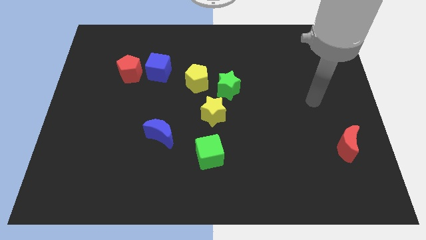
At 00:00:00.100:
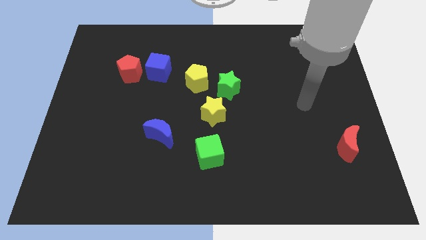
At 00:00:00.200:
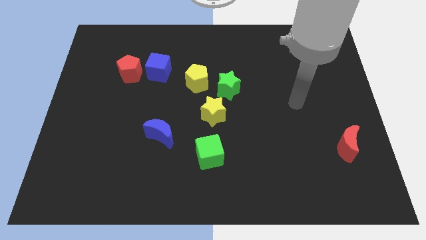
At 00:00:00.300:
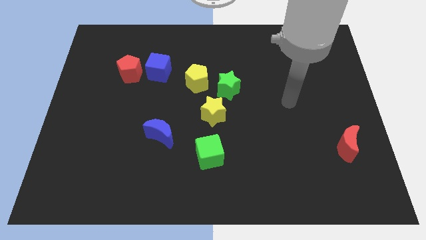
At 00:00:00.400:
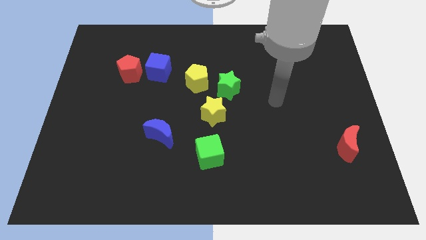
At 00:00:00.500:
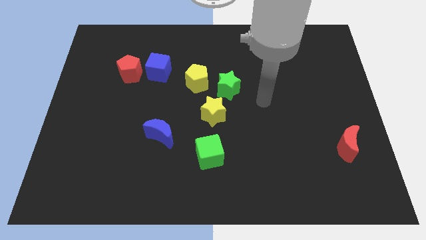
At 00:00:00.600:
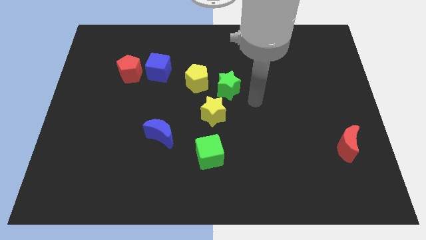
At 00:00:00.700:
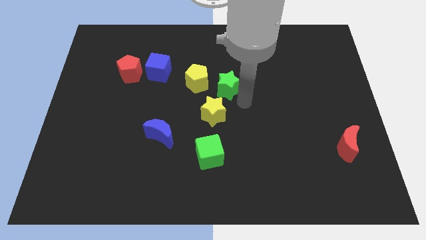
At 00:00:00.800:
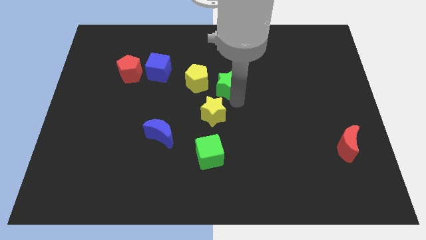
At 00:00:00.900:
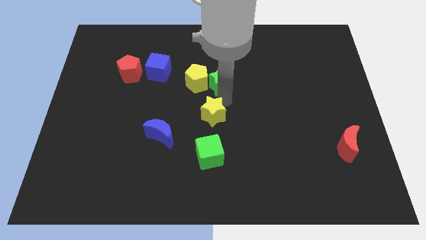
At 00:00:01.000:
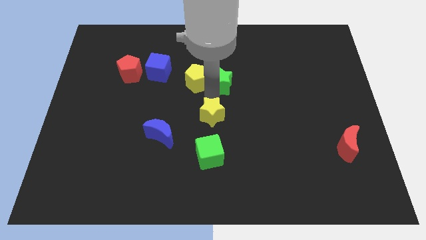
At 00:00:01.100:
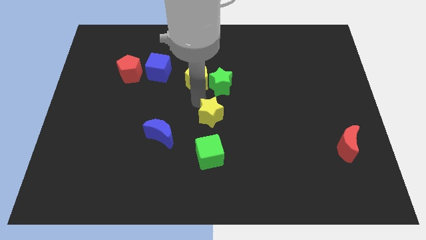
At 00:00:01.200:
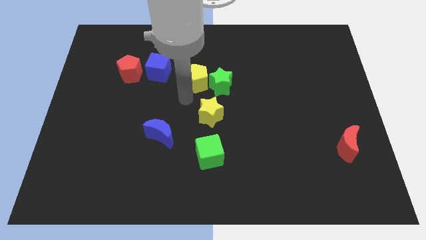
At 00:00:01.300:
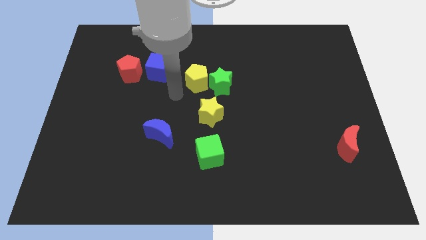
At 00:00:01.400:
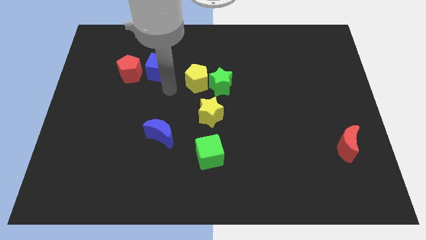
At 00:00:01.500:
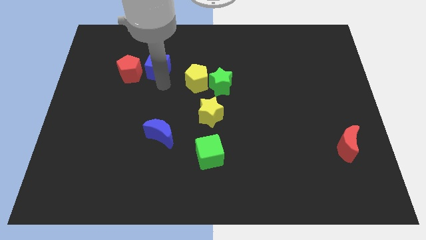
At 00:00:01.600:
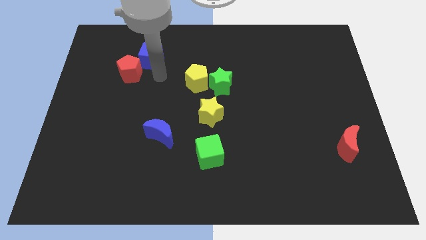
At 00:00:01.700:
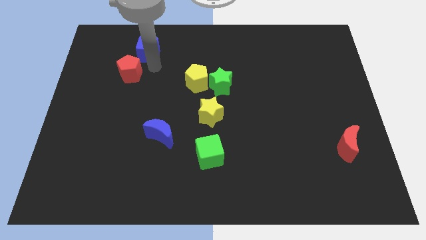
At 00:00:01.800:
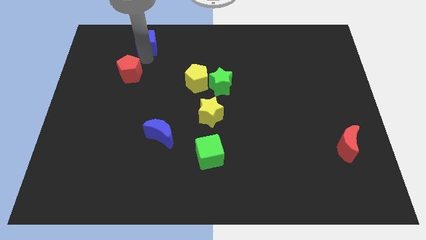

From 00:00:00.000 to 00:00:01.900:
pull the red pentagon apart from the blue cube

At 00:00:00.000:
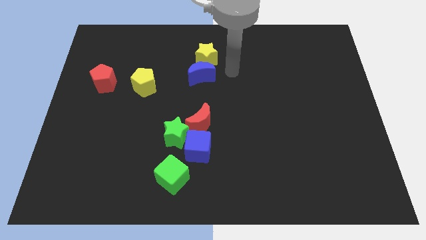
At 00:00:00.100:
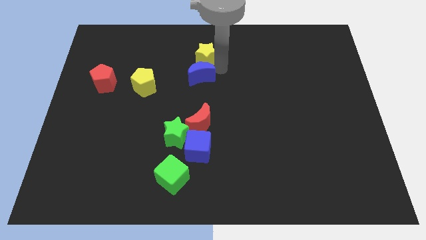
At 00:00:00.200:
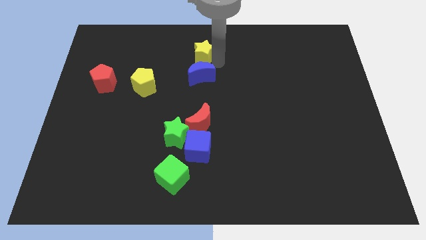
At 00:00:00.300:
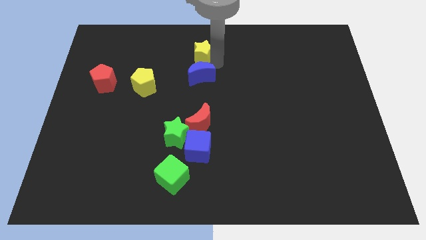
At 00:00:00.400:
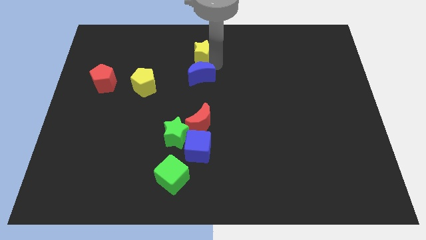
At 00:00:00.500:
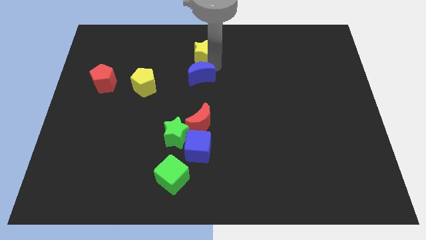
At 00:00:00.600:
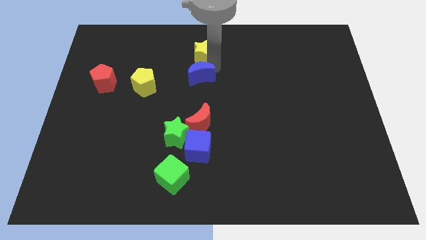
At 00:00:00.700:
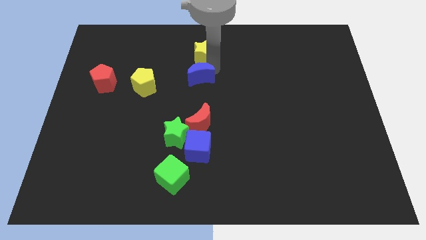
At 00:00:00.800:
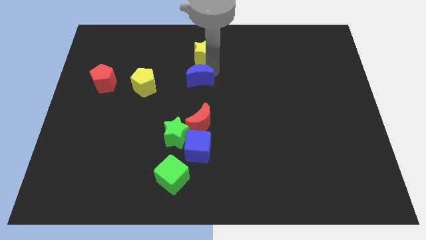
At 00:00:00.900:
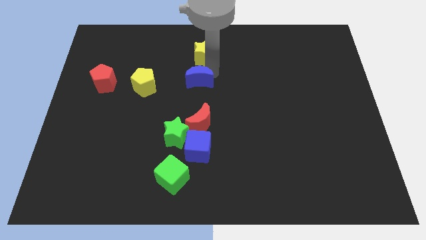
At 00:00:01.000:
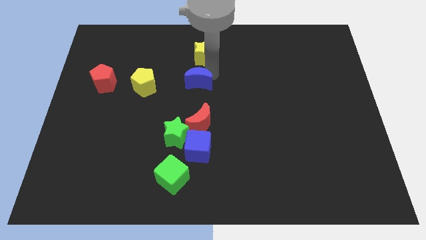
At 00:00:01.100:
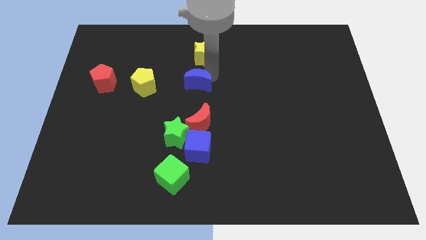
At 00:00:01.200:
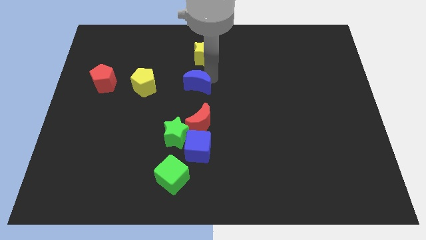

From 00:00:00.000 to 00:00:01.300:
pull the blue moon apart from the yellow star

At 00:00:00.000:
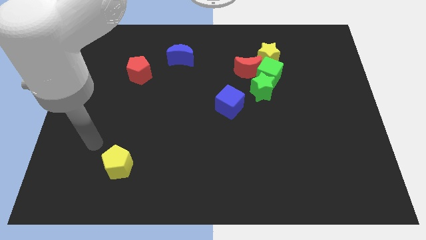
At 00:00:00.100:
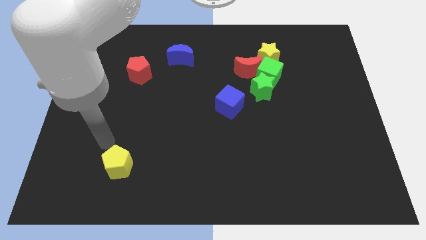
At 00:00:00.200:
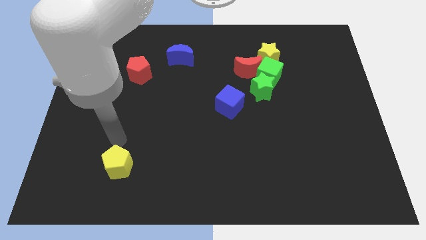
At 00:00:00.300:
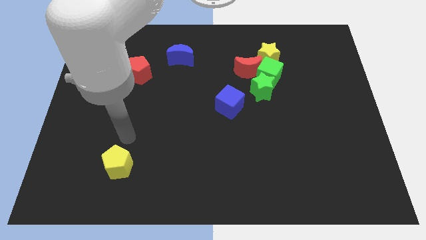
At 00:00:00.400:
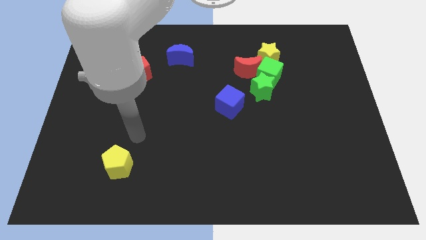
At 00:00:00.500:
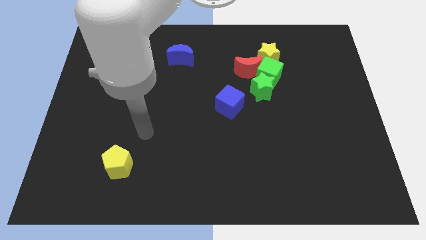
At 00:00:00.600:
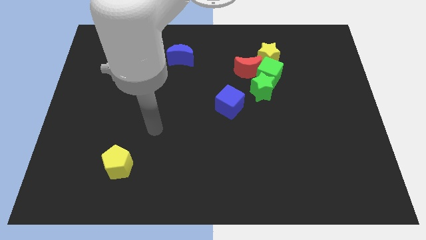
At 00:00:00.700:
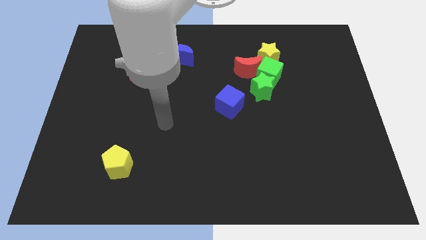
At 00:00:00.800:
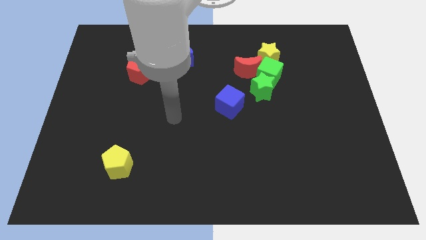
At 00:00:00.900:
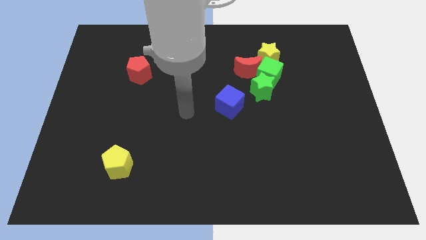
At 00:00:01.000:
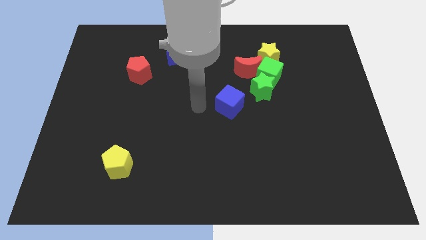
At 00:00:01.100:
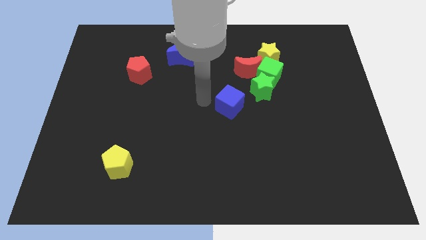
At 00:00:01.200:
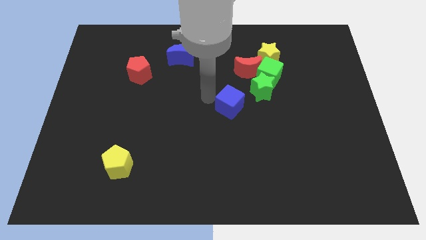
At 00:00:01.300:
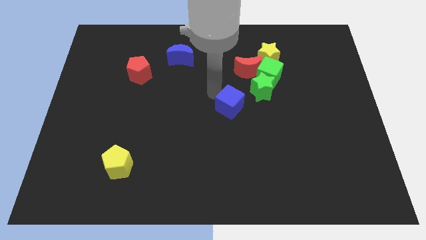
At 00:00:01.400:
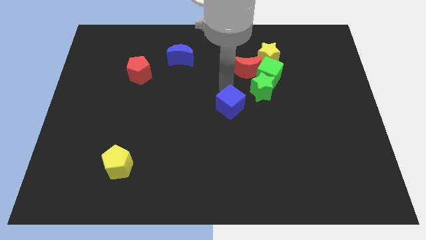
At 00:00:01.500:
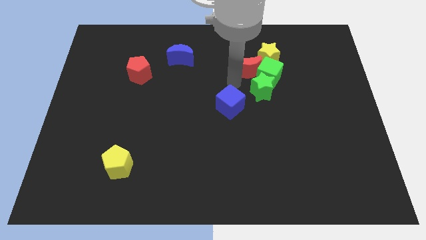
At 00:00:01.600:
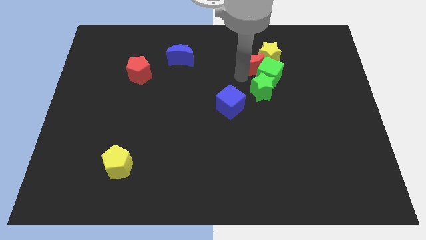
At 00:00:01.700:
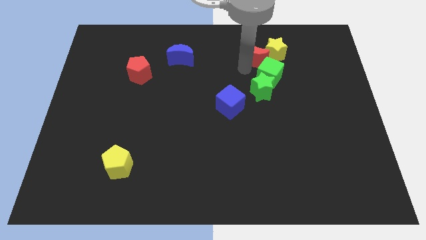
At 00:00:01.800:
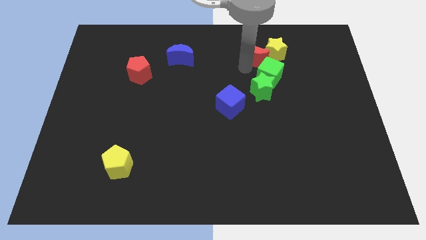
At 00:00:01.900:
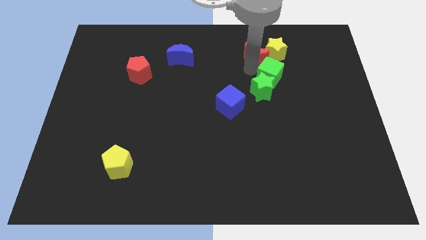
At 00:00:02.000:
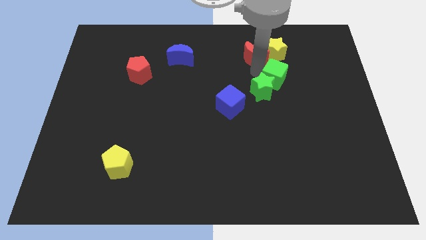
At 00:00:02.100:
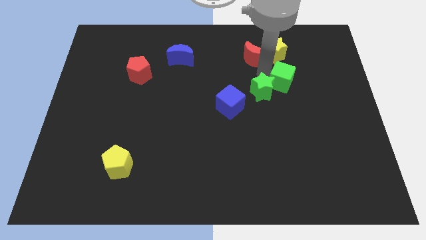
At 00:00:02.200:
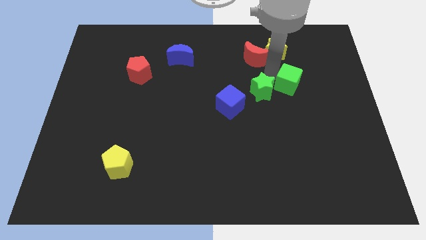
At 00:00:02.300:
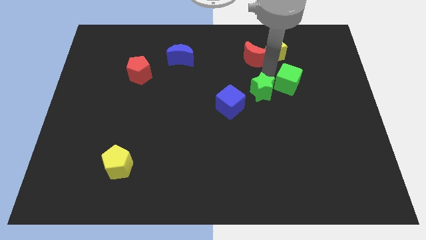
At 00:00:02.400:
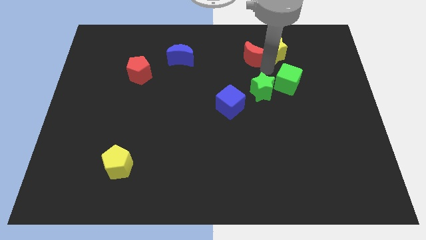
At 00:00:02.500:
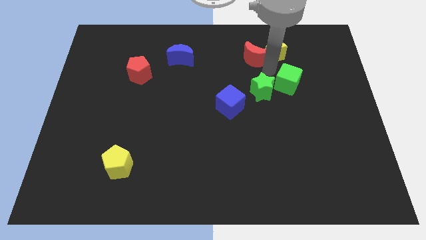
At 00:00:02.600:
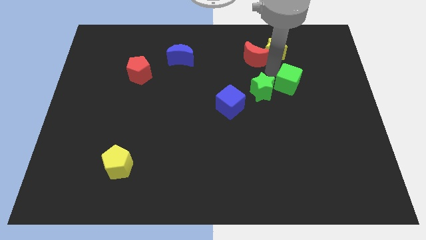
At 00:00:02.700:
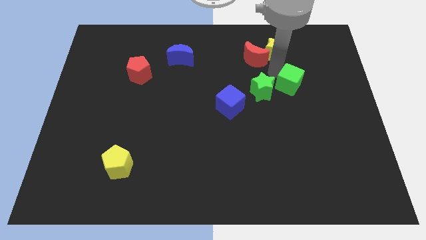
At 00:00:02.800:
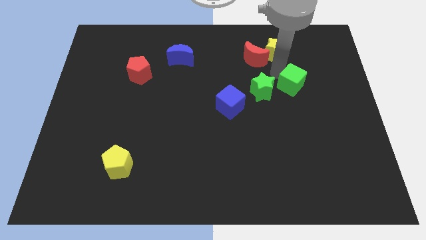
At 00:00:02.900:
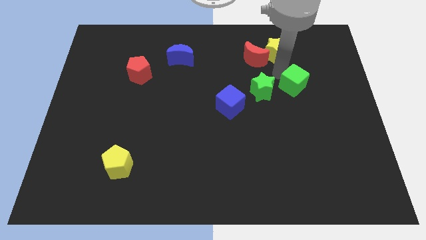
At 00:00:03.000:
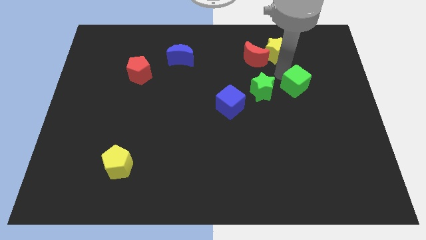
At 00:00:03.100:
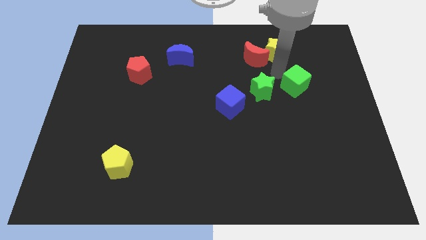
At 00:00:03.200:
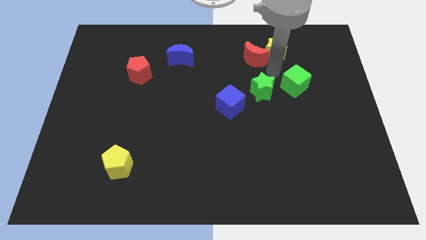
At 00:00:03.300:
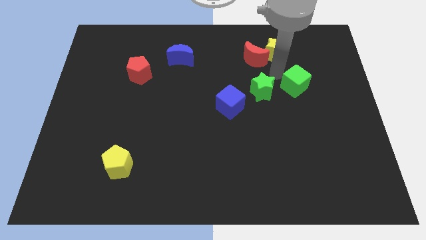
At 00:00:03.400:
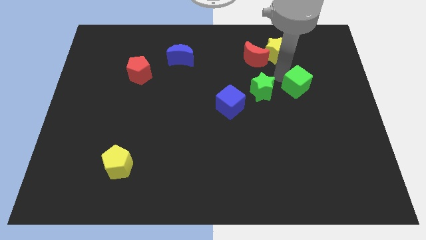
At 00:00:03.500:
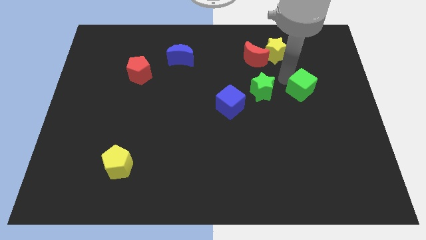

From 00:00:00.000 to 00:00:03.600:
separate the green cube from the group of blocks

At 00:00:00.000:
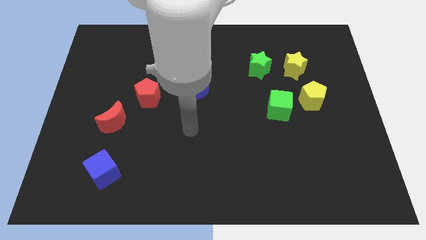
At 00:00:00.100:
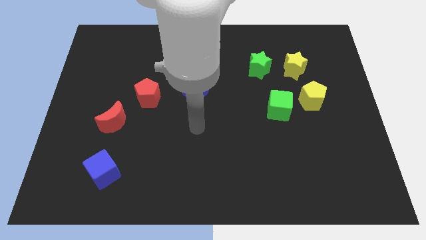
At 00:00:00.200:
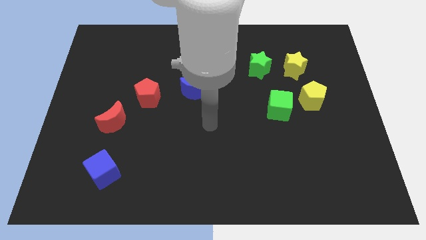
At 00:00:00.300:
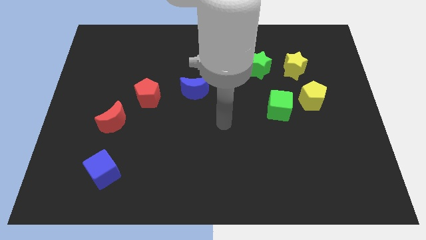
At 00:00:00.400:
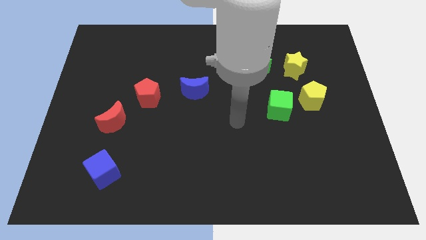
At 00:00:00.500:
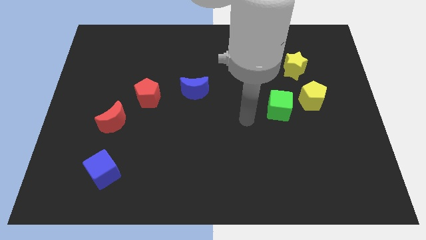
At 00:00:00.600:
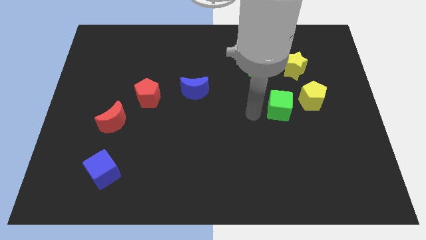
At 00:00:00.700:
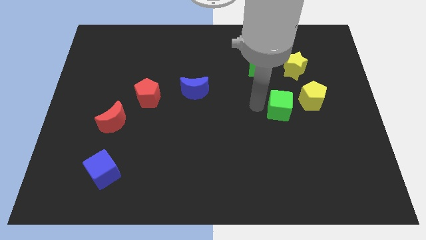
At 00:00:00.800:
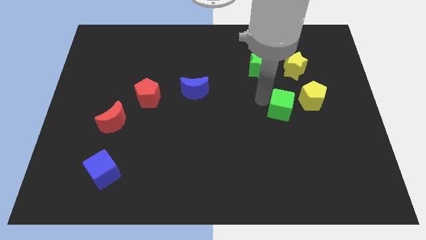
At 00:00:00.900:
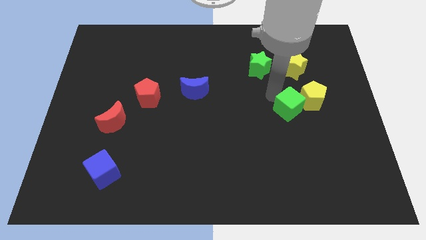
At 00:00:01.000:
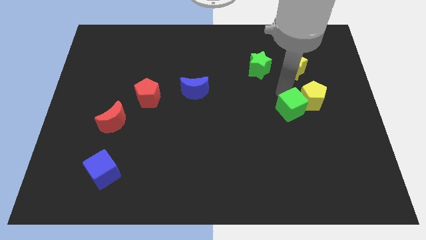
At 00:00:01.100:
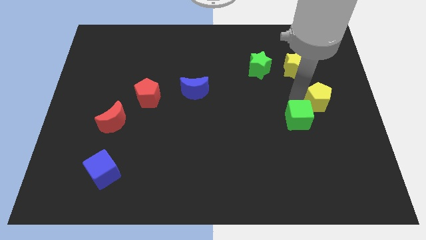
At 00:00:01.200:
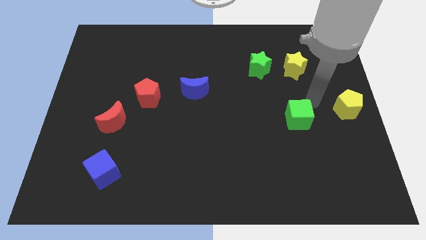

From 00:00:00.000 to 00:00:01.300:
pull the green cube apart from the yellow pentagon

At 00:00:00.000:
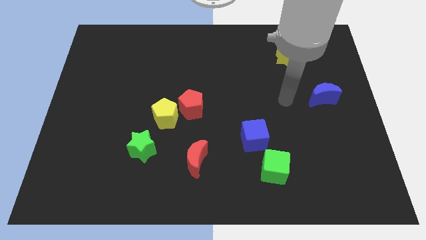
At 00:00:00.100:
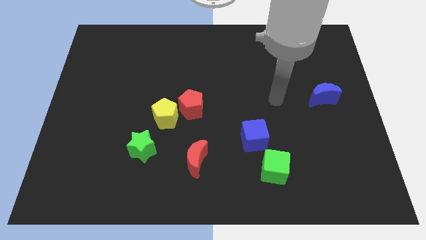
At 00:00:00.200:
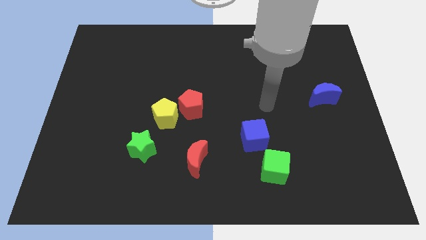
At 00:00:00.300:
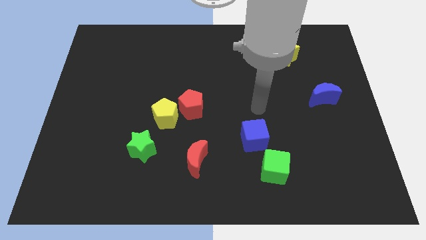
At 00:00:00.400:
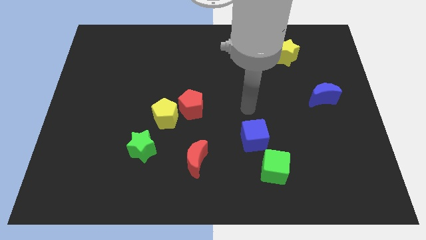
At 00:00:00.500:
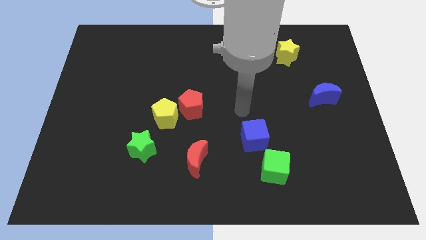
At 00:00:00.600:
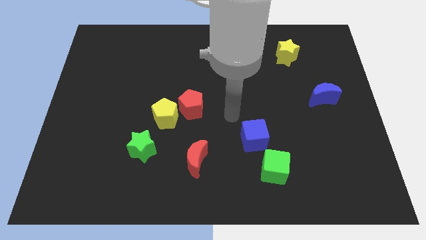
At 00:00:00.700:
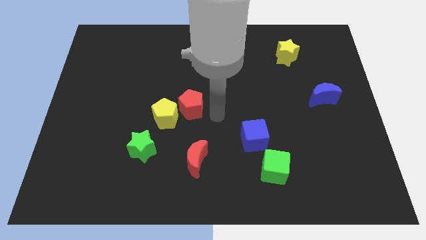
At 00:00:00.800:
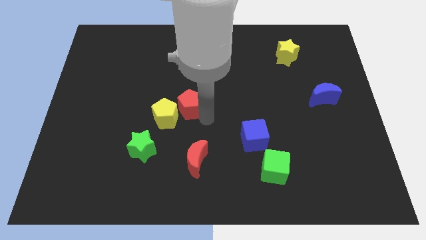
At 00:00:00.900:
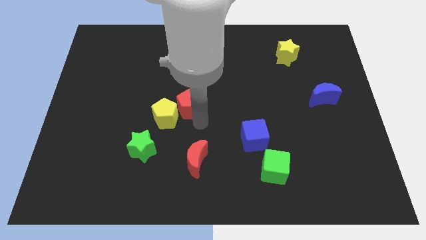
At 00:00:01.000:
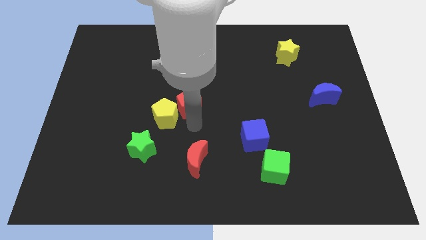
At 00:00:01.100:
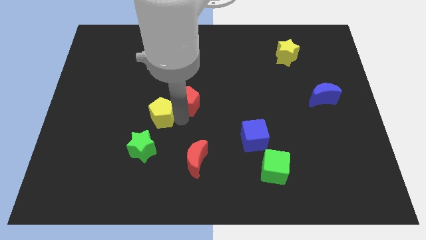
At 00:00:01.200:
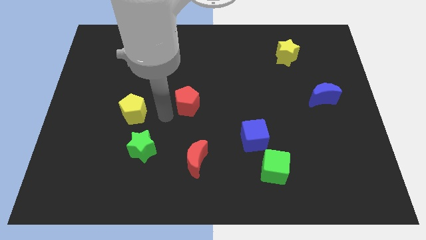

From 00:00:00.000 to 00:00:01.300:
pull the red pentagon apart from the yellow pentagon
